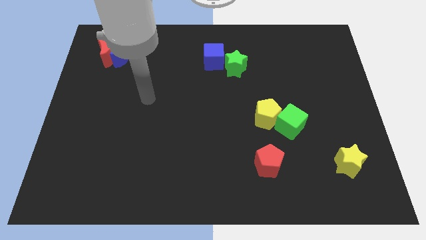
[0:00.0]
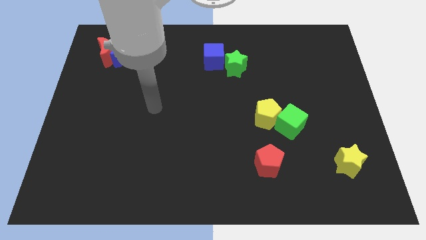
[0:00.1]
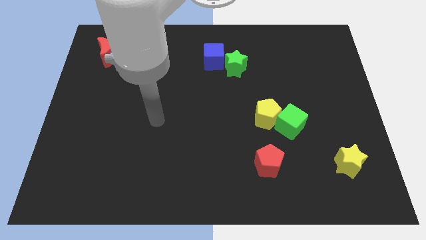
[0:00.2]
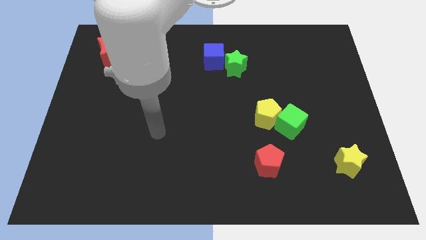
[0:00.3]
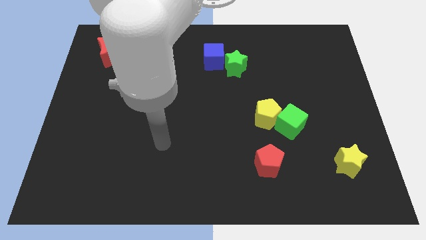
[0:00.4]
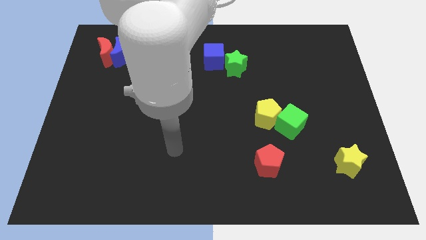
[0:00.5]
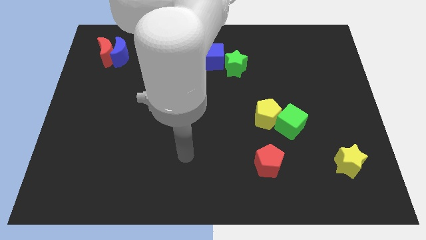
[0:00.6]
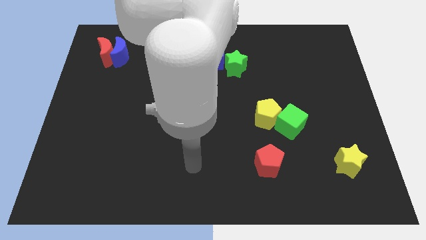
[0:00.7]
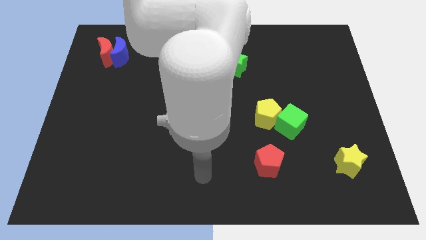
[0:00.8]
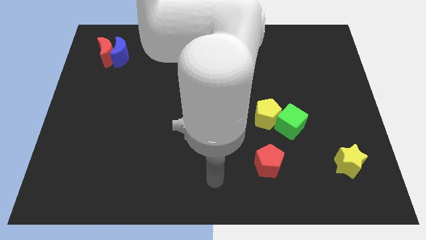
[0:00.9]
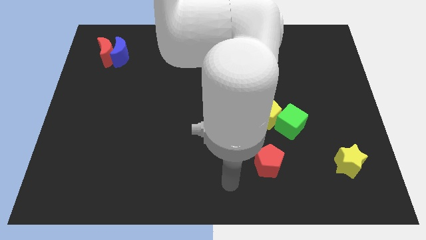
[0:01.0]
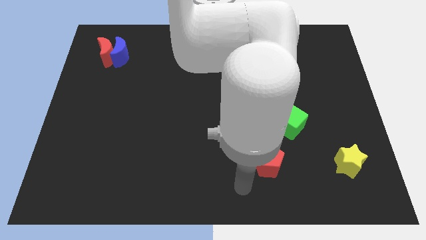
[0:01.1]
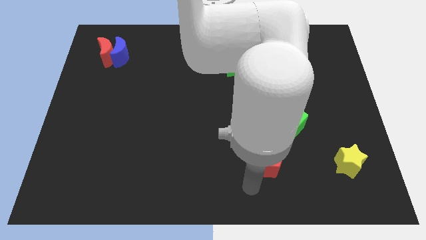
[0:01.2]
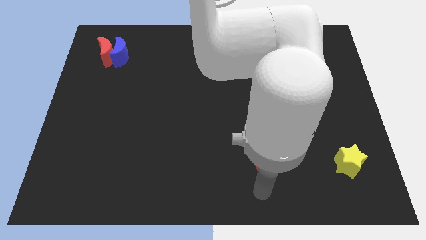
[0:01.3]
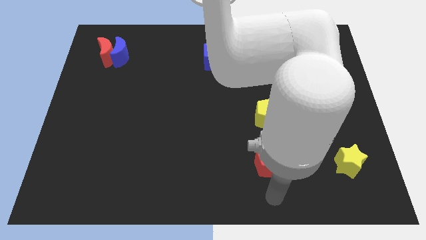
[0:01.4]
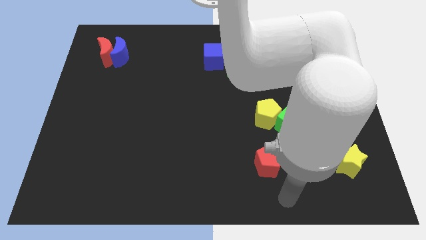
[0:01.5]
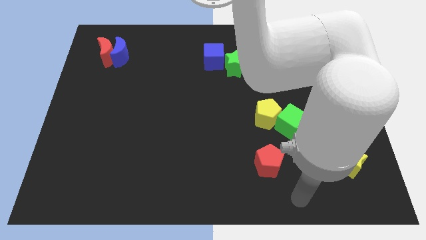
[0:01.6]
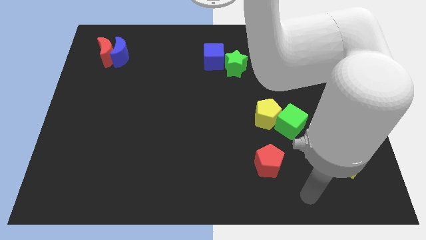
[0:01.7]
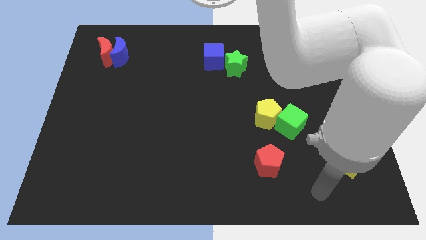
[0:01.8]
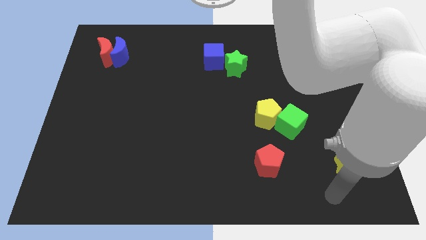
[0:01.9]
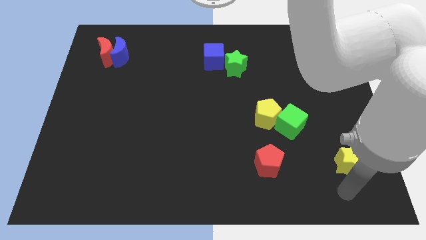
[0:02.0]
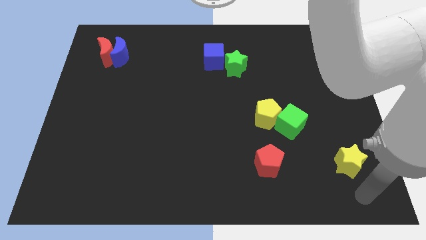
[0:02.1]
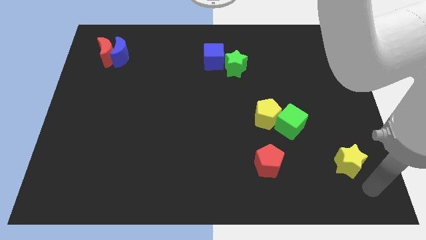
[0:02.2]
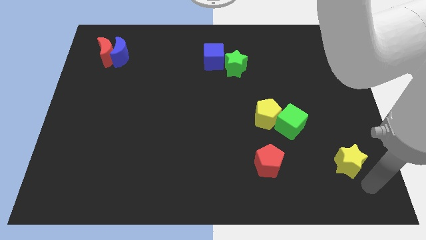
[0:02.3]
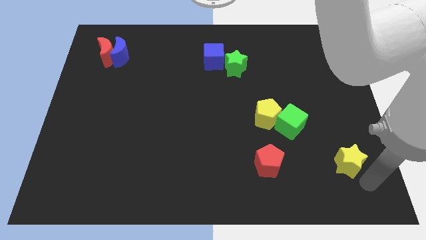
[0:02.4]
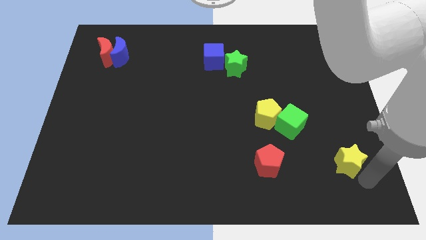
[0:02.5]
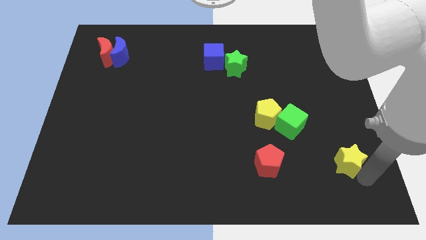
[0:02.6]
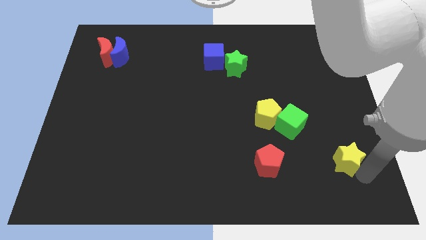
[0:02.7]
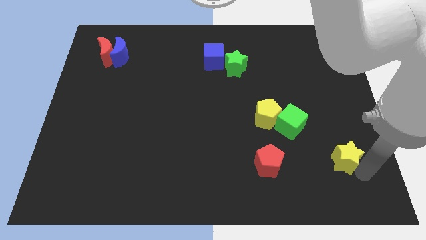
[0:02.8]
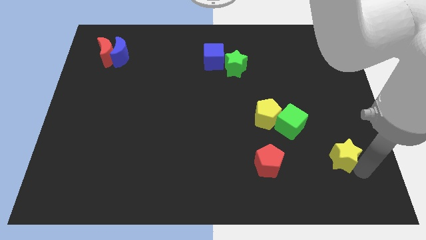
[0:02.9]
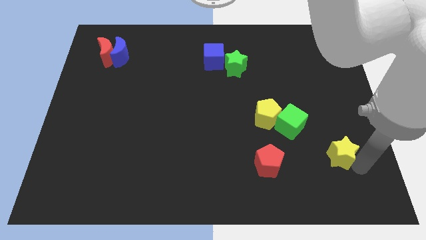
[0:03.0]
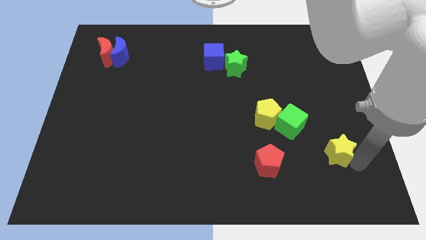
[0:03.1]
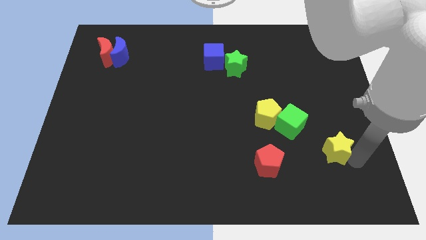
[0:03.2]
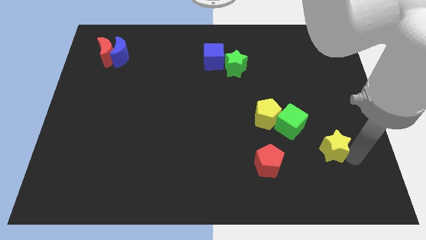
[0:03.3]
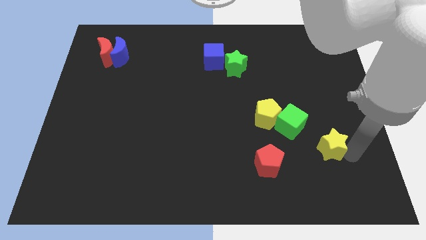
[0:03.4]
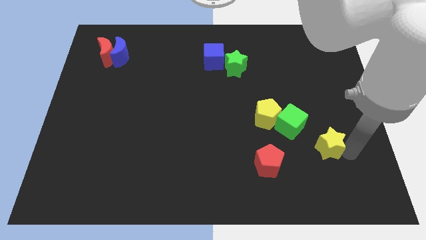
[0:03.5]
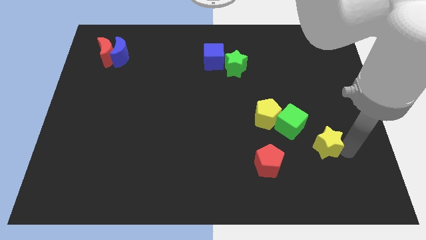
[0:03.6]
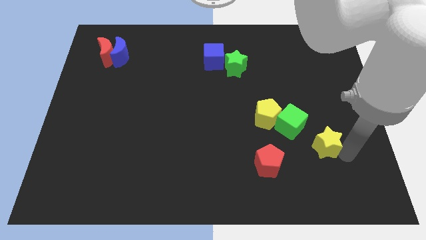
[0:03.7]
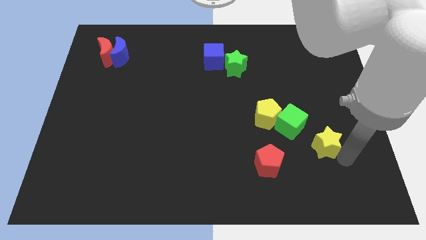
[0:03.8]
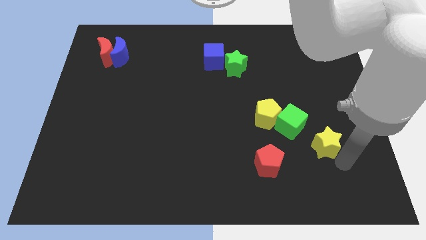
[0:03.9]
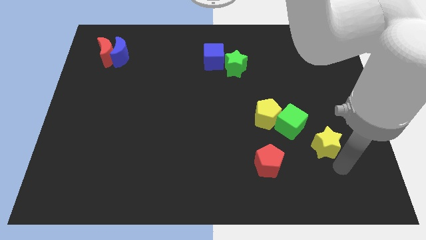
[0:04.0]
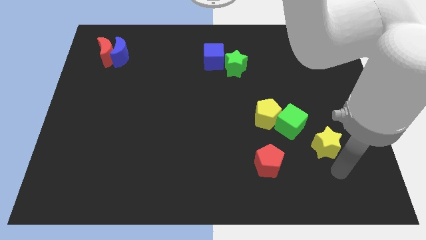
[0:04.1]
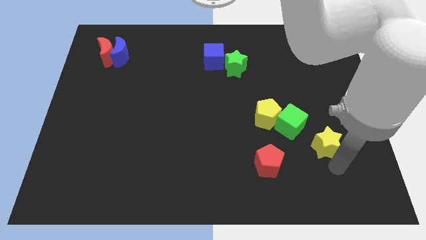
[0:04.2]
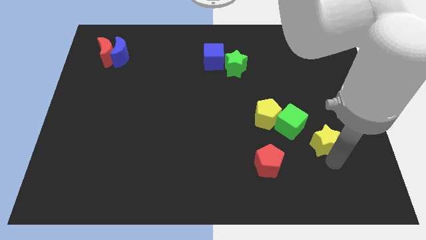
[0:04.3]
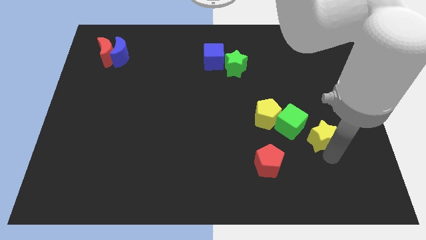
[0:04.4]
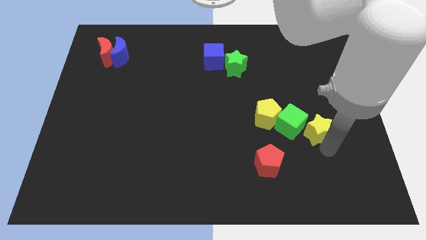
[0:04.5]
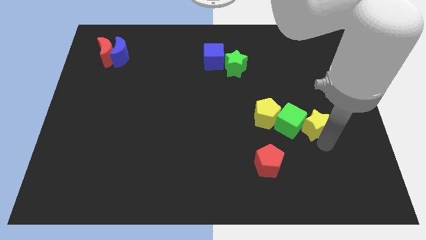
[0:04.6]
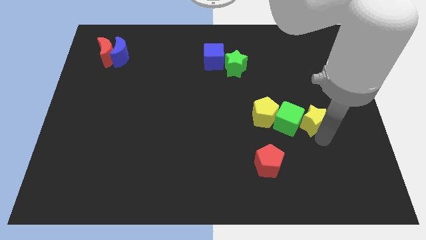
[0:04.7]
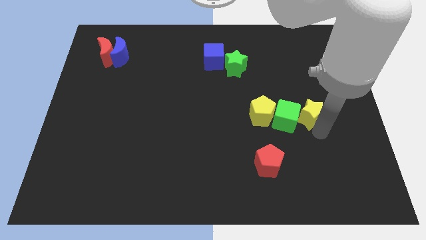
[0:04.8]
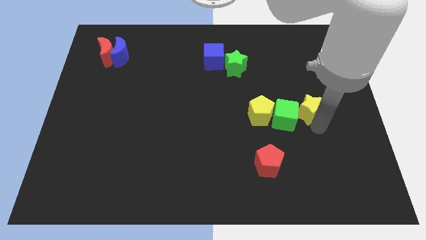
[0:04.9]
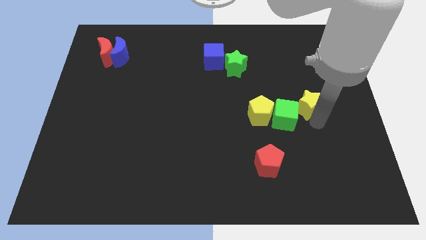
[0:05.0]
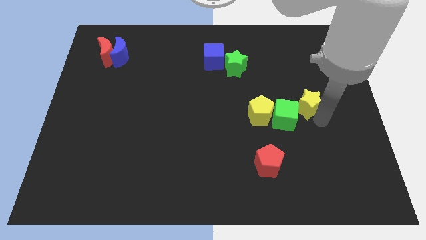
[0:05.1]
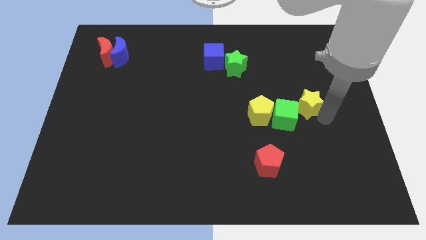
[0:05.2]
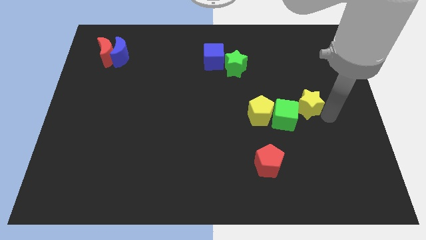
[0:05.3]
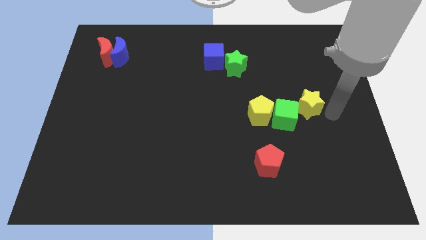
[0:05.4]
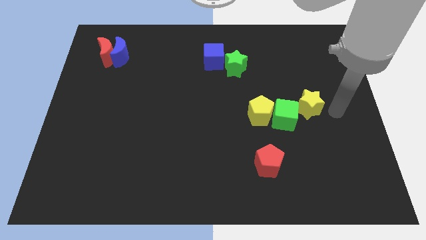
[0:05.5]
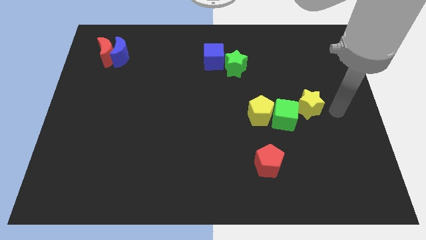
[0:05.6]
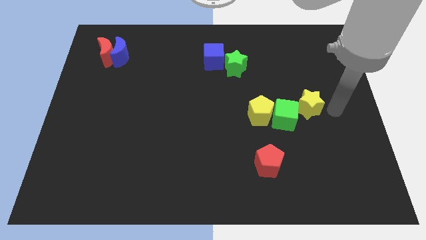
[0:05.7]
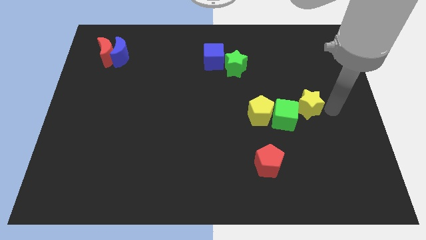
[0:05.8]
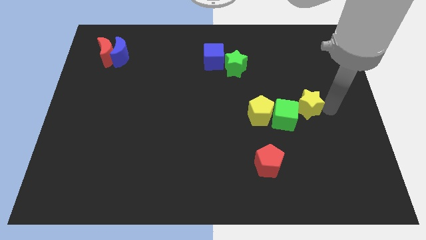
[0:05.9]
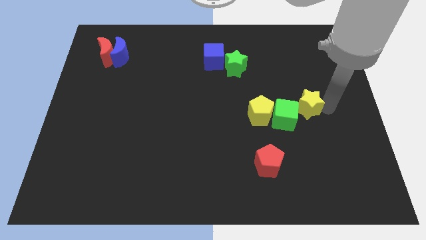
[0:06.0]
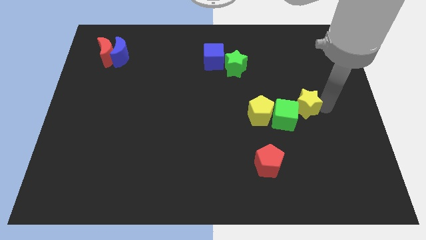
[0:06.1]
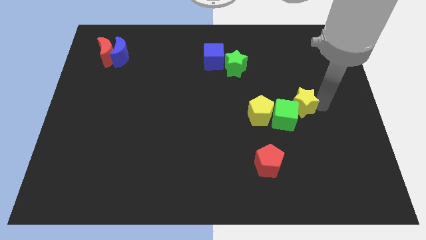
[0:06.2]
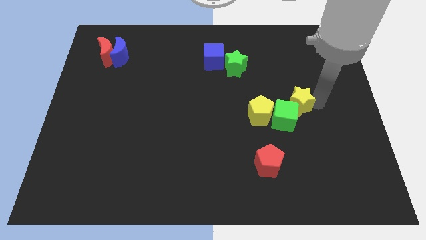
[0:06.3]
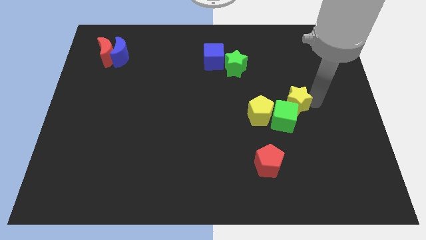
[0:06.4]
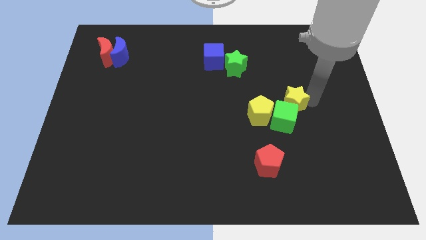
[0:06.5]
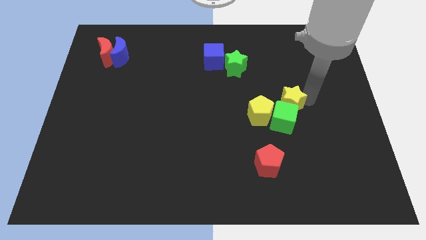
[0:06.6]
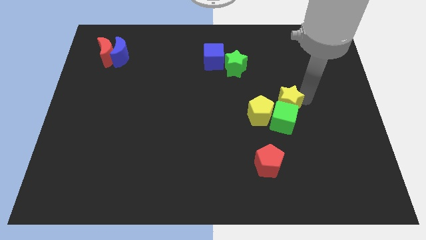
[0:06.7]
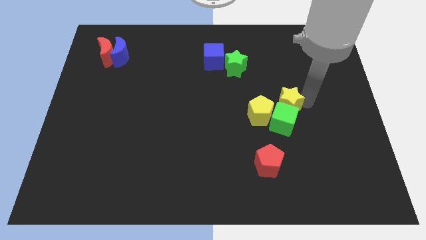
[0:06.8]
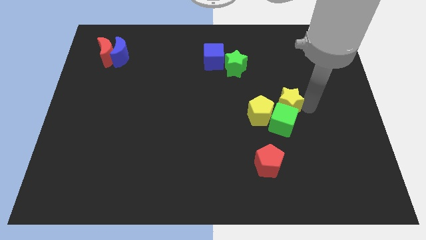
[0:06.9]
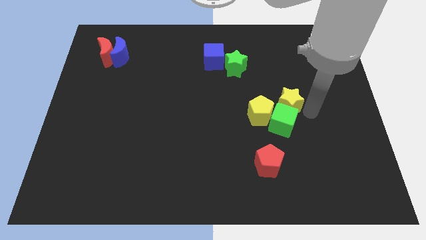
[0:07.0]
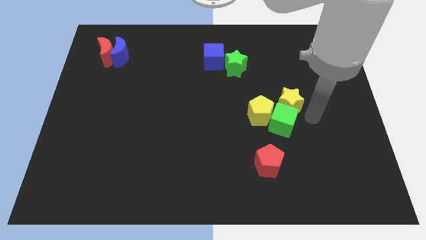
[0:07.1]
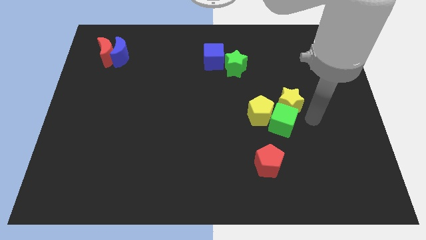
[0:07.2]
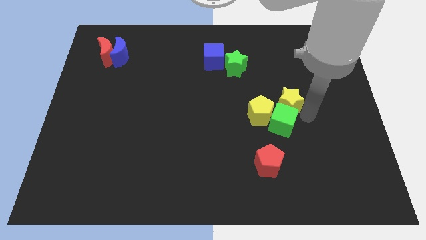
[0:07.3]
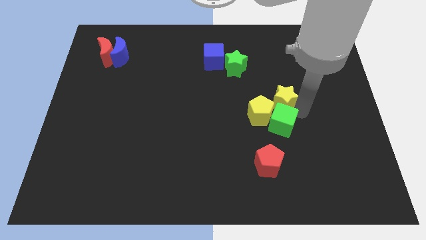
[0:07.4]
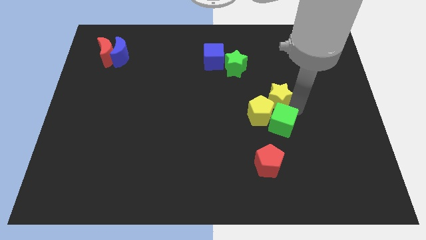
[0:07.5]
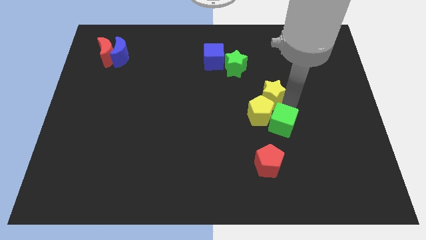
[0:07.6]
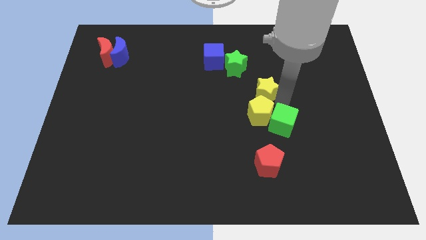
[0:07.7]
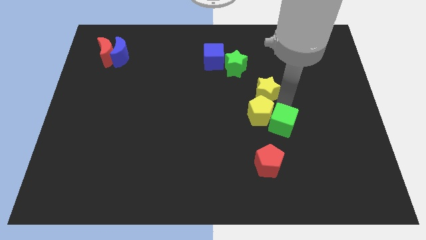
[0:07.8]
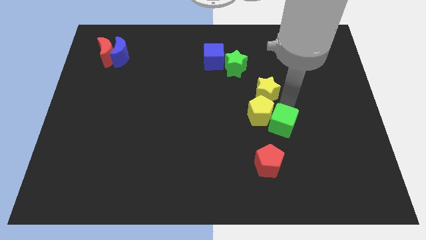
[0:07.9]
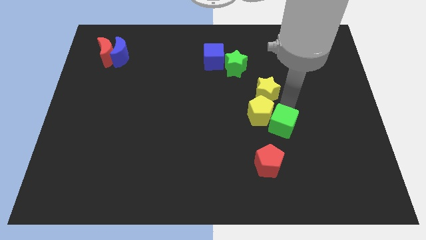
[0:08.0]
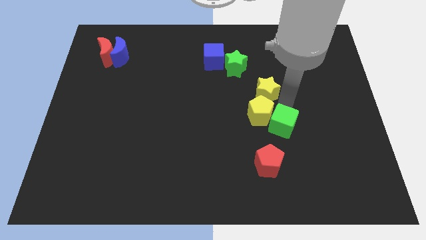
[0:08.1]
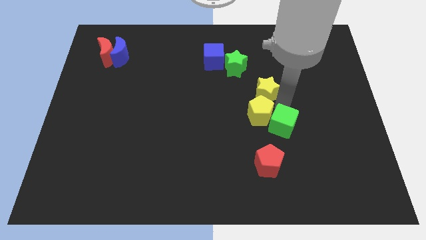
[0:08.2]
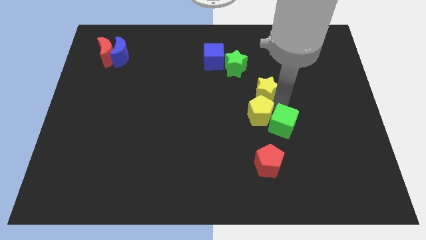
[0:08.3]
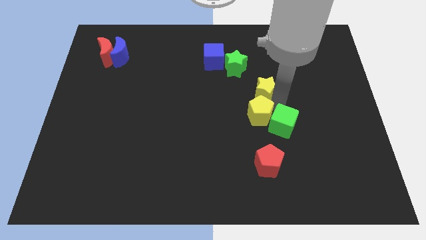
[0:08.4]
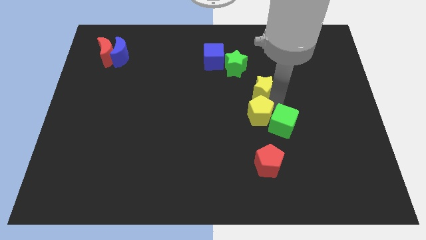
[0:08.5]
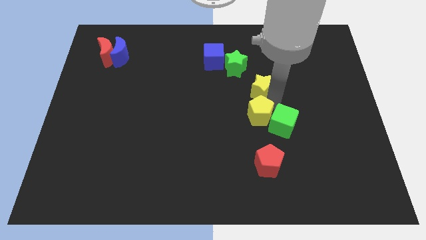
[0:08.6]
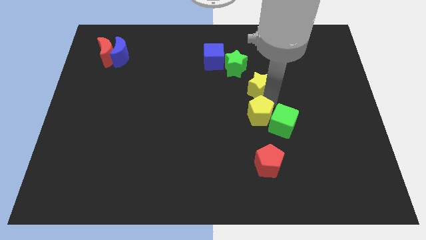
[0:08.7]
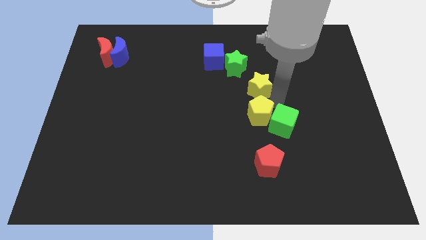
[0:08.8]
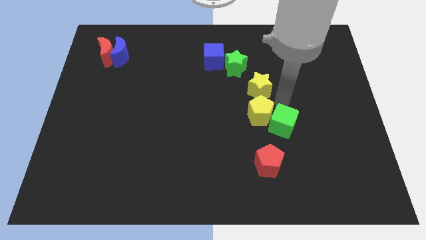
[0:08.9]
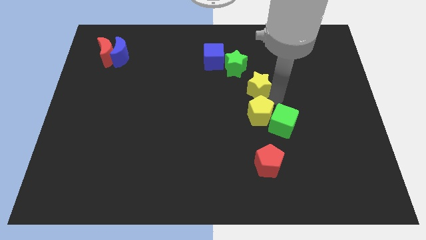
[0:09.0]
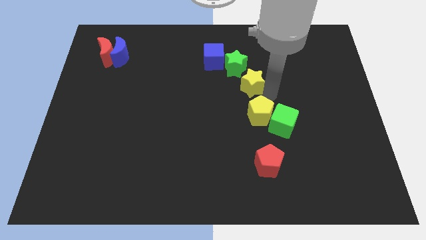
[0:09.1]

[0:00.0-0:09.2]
slide the yellow star to the bottom right side of the blue cube
